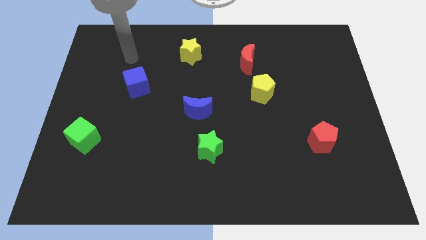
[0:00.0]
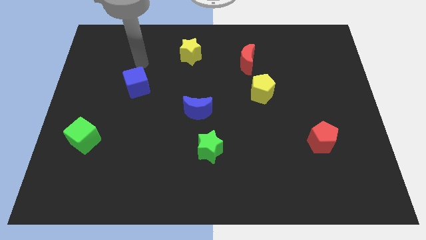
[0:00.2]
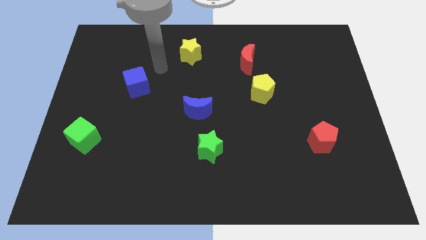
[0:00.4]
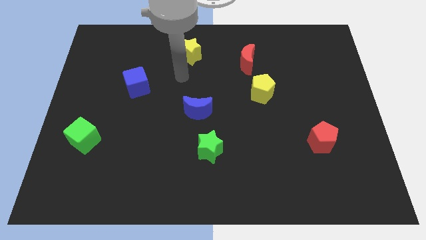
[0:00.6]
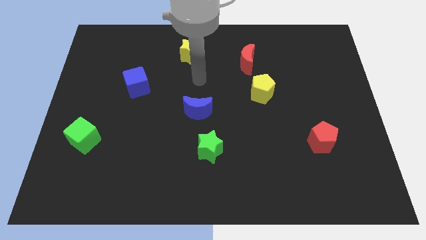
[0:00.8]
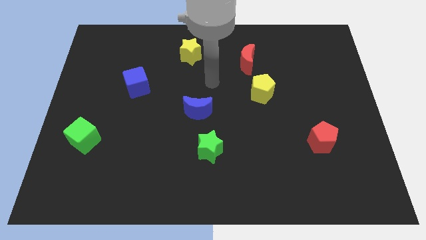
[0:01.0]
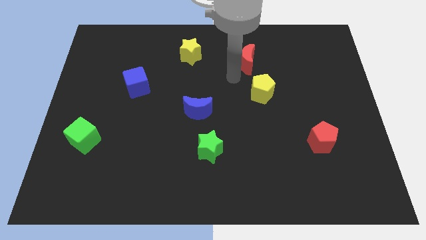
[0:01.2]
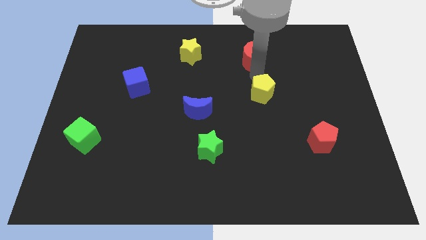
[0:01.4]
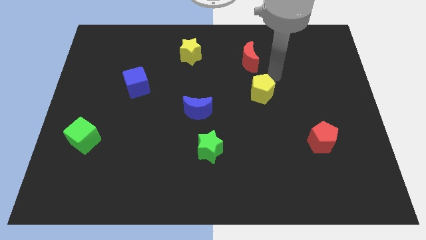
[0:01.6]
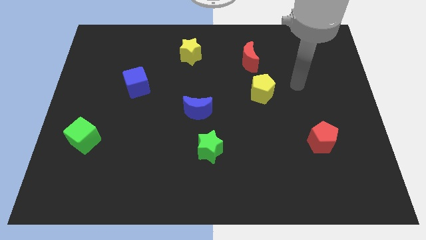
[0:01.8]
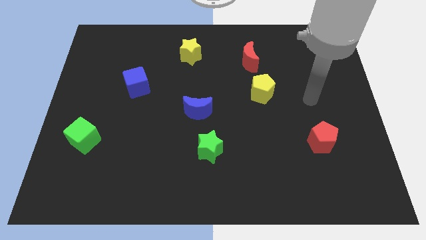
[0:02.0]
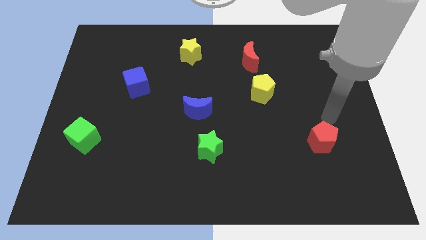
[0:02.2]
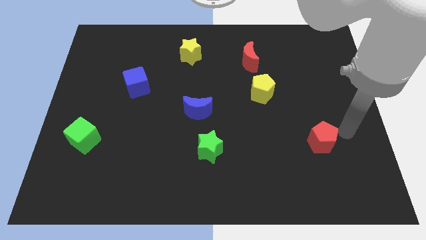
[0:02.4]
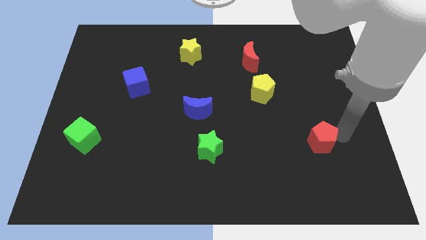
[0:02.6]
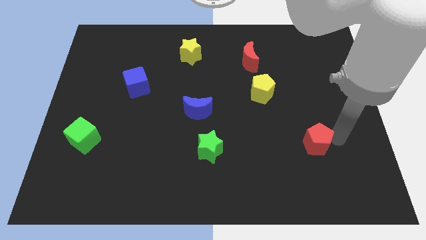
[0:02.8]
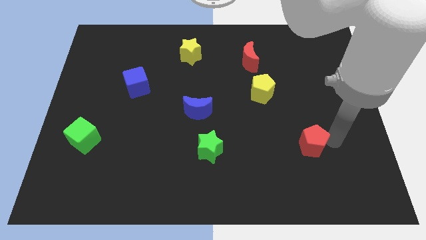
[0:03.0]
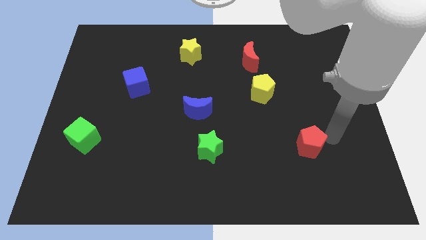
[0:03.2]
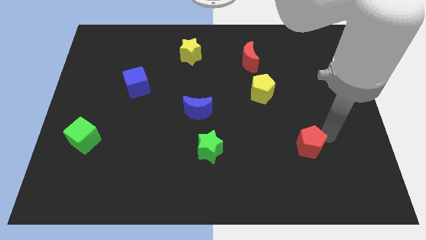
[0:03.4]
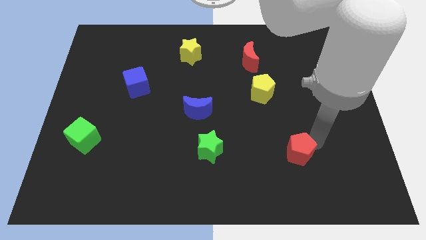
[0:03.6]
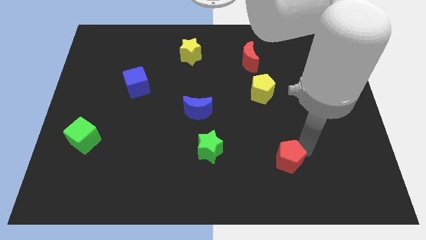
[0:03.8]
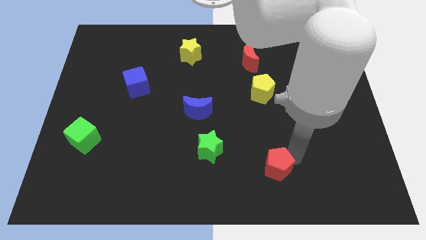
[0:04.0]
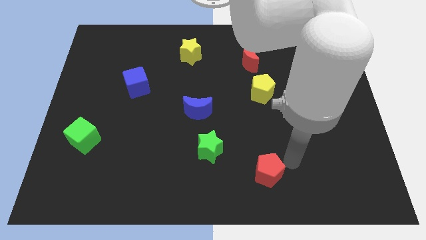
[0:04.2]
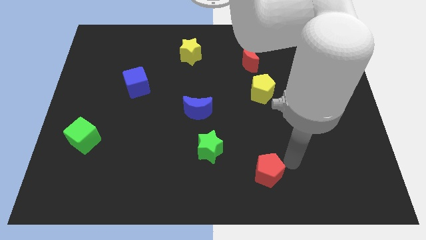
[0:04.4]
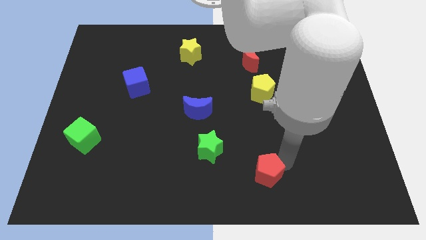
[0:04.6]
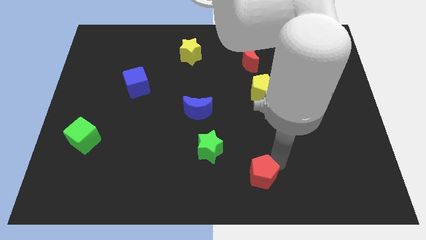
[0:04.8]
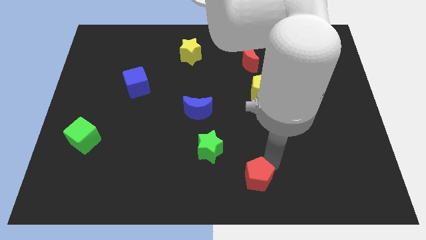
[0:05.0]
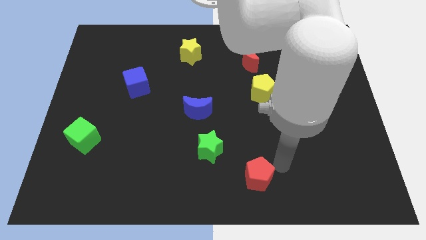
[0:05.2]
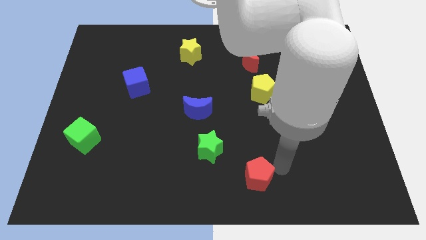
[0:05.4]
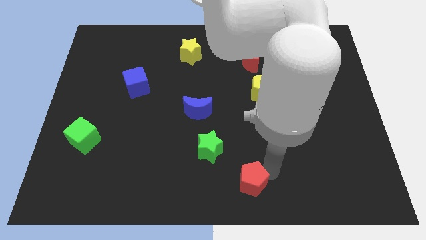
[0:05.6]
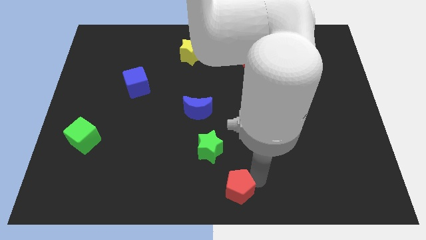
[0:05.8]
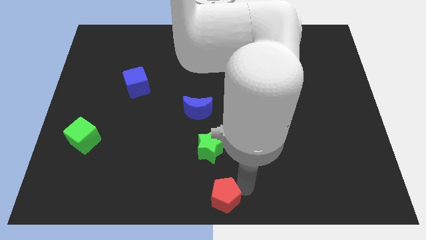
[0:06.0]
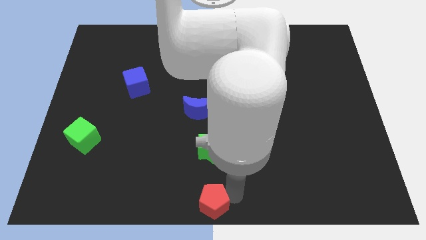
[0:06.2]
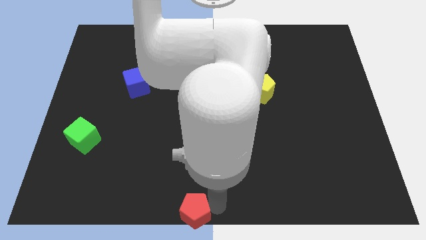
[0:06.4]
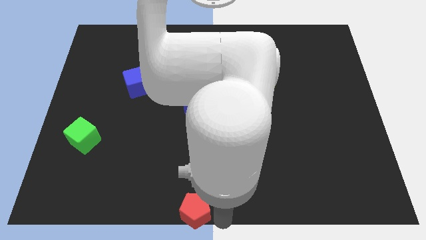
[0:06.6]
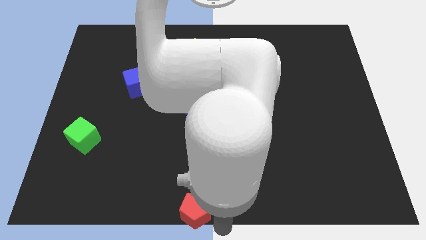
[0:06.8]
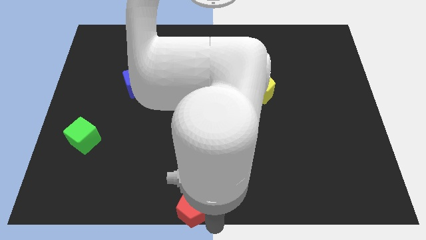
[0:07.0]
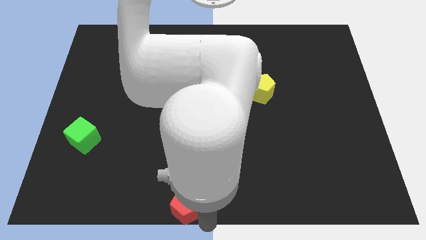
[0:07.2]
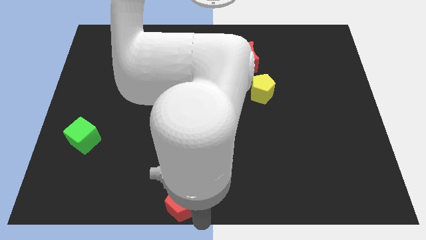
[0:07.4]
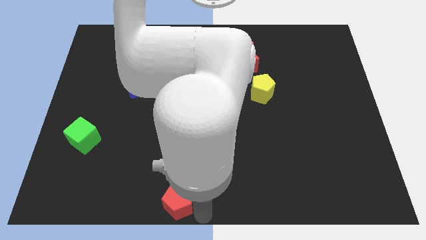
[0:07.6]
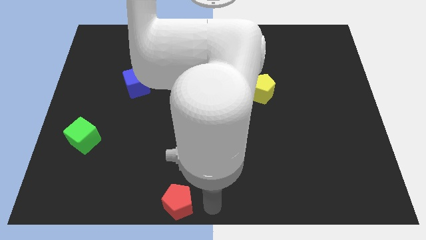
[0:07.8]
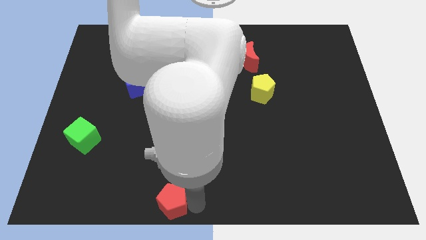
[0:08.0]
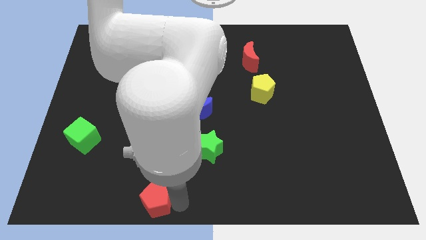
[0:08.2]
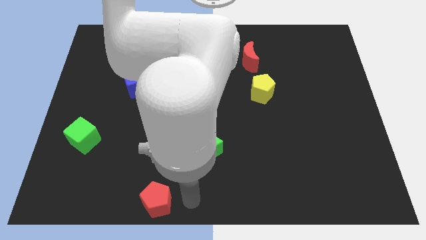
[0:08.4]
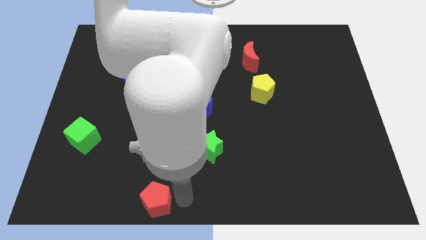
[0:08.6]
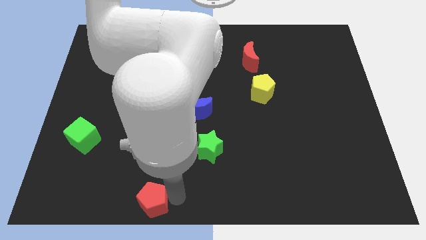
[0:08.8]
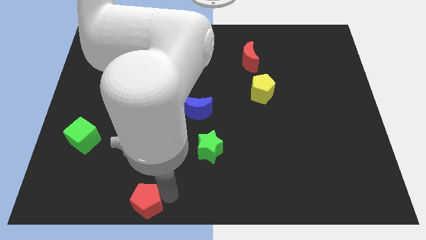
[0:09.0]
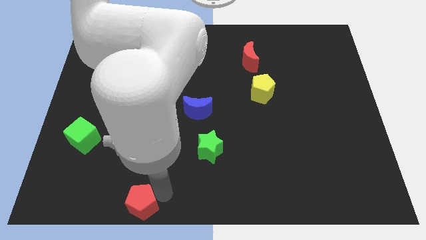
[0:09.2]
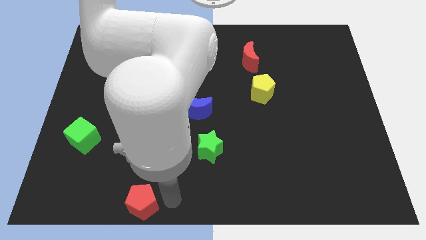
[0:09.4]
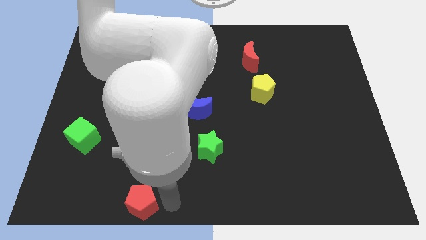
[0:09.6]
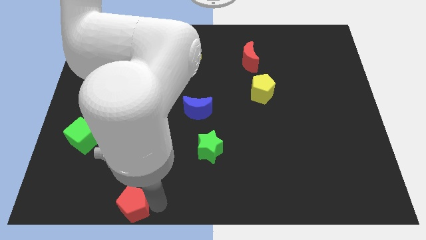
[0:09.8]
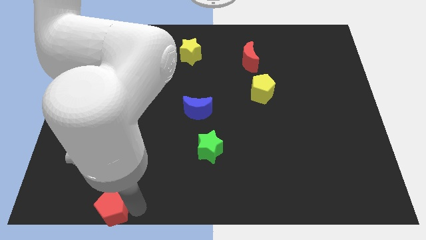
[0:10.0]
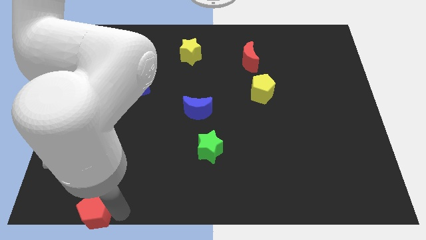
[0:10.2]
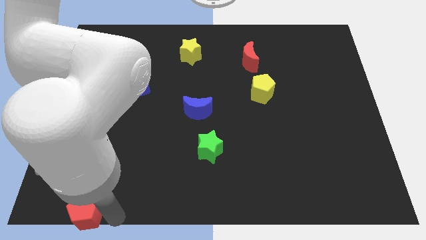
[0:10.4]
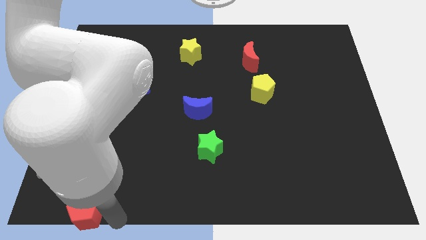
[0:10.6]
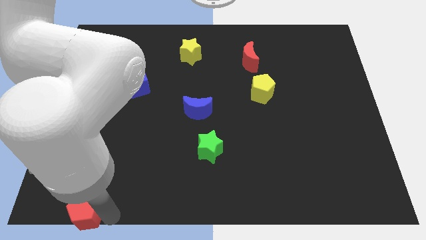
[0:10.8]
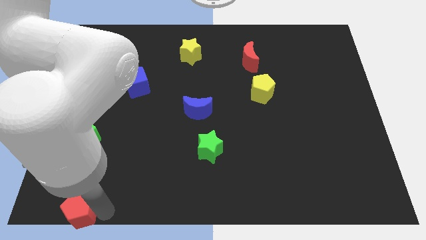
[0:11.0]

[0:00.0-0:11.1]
slide the red pentagon to the bottom left of the board

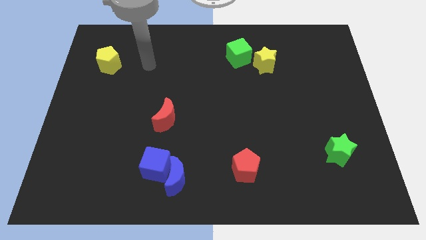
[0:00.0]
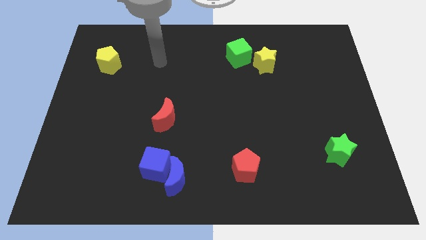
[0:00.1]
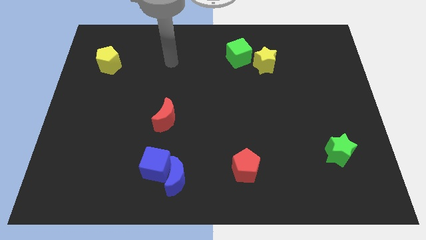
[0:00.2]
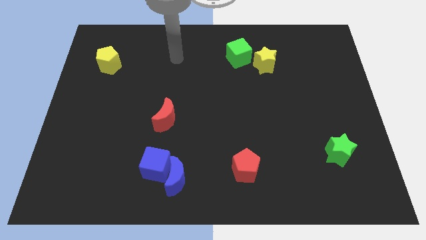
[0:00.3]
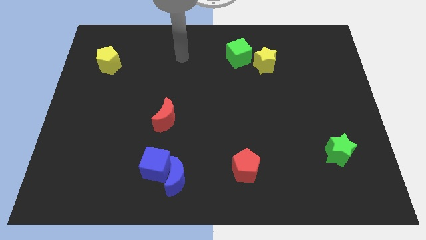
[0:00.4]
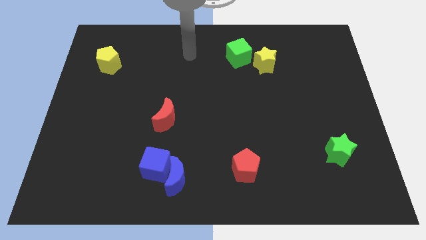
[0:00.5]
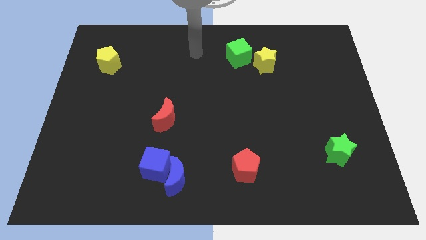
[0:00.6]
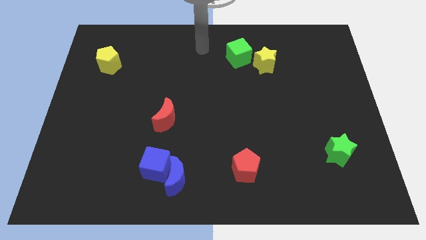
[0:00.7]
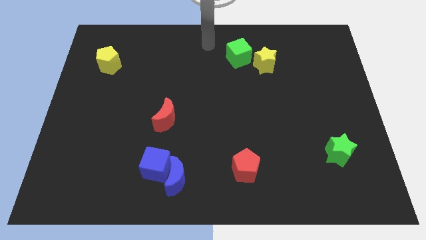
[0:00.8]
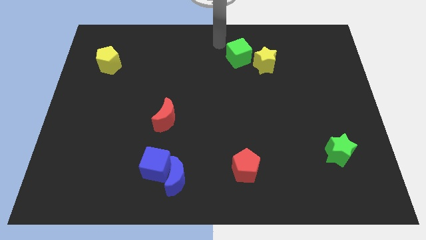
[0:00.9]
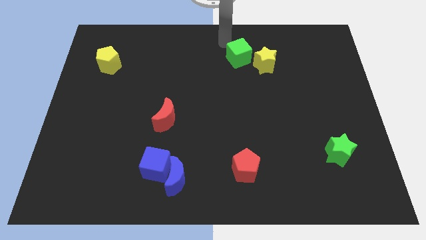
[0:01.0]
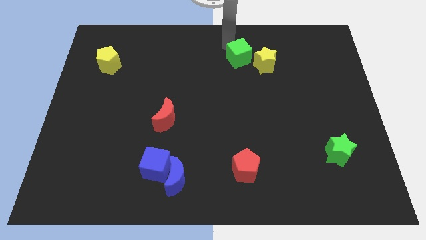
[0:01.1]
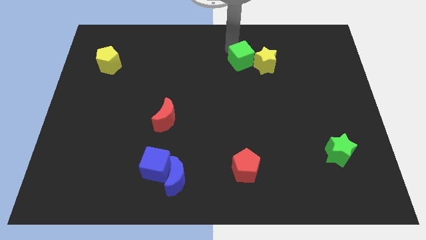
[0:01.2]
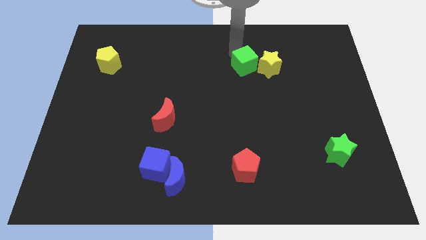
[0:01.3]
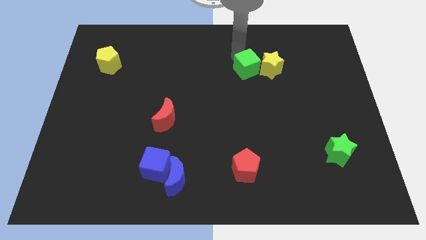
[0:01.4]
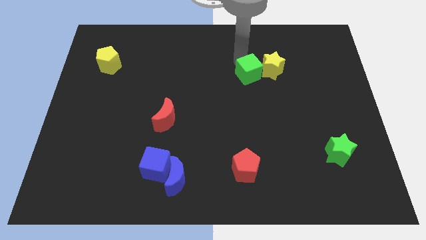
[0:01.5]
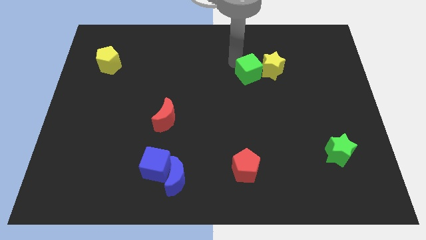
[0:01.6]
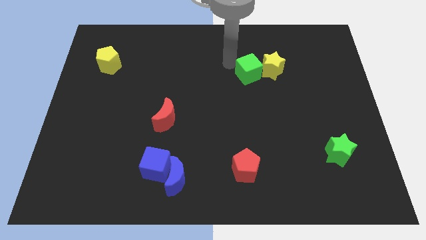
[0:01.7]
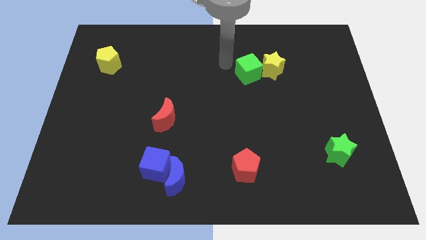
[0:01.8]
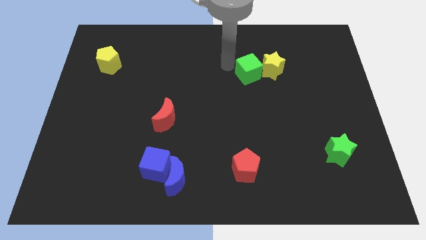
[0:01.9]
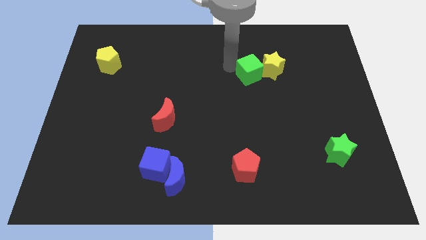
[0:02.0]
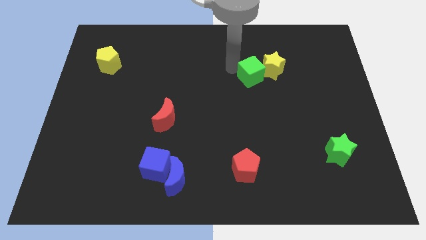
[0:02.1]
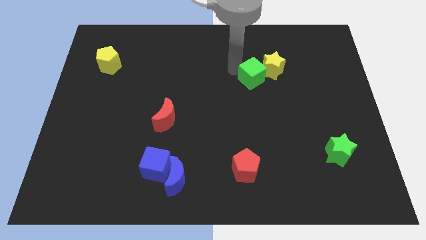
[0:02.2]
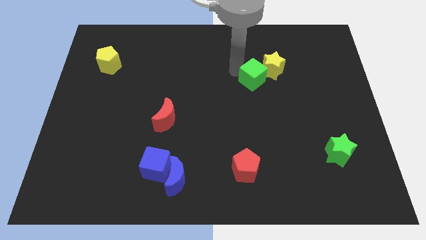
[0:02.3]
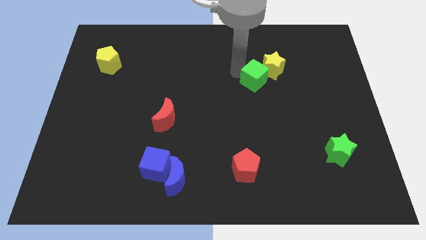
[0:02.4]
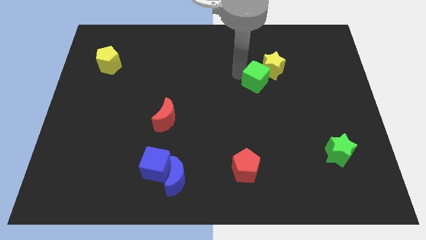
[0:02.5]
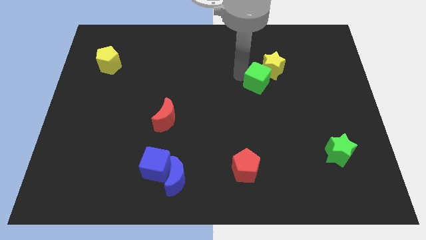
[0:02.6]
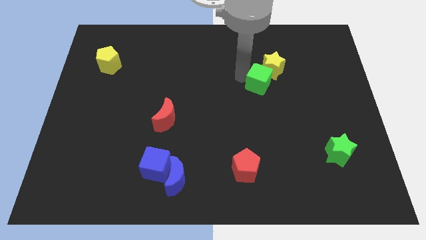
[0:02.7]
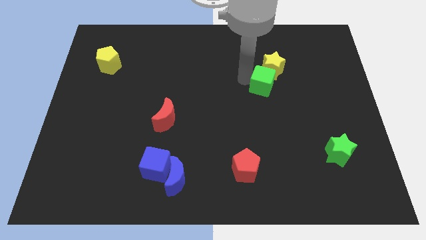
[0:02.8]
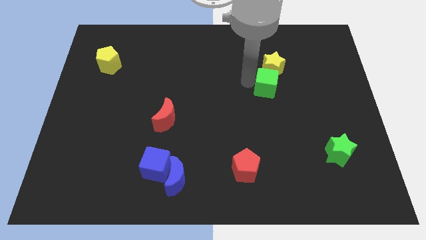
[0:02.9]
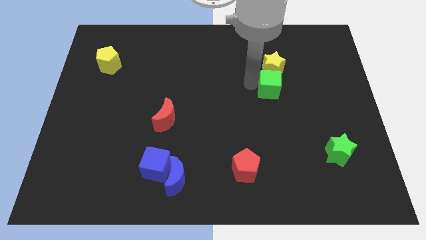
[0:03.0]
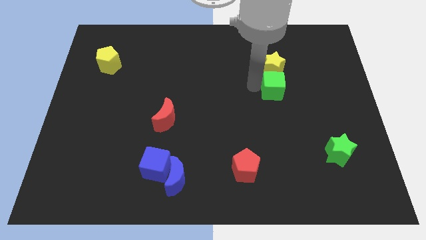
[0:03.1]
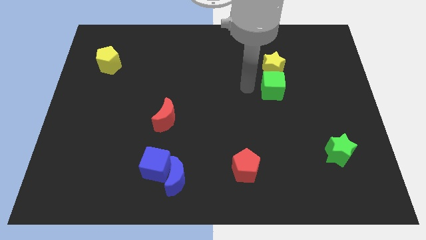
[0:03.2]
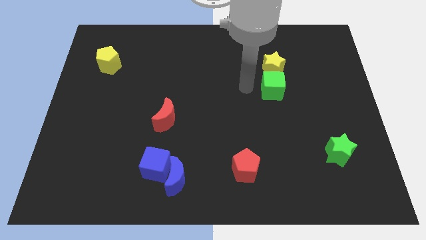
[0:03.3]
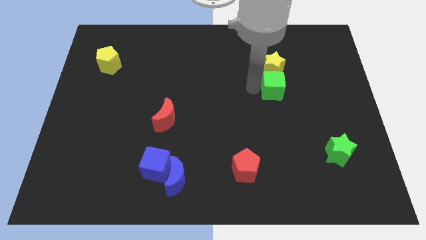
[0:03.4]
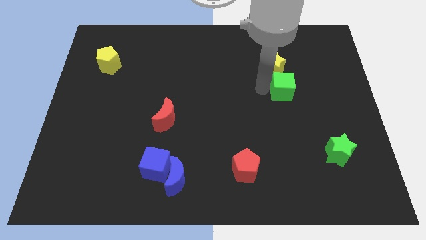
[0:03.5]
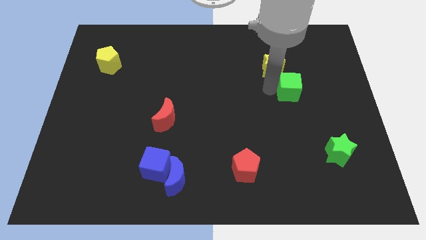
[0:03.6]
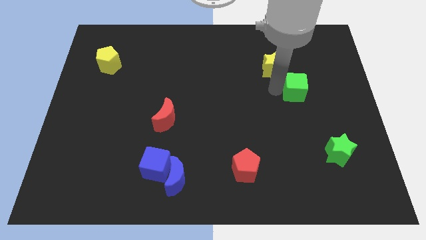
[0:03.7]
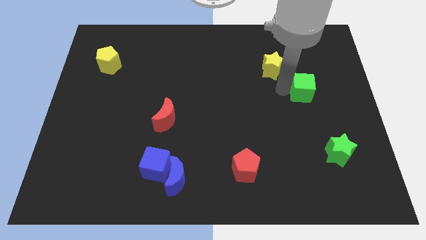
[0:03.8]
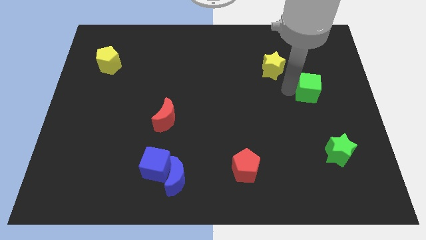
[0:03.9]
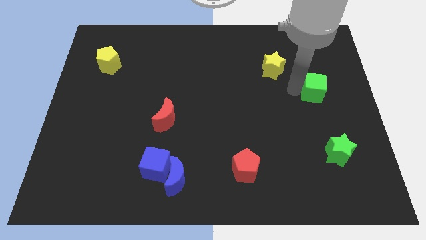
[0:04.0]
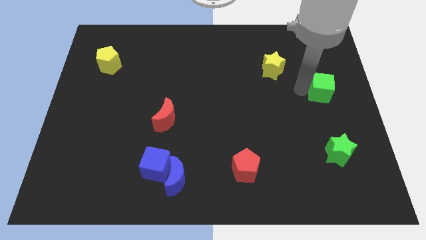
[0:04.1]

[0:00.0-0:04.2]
push the green cube to the right side
